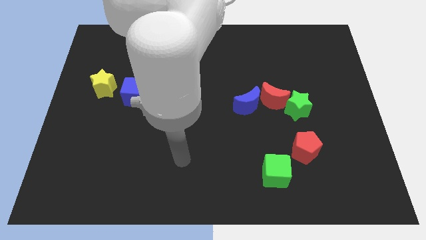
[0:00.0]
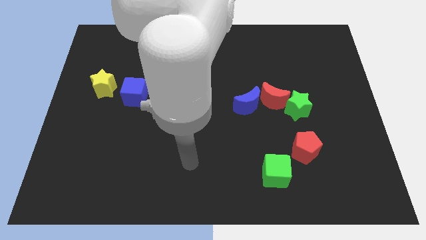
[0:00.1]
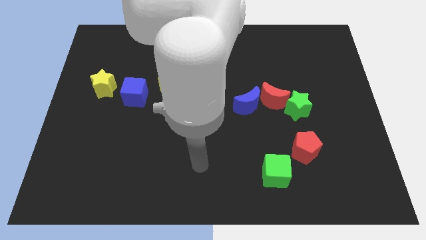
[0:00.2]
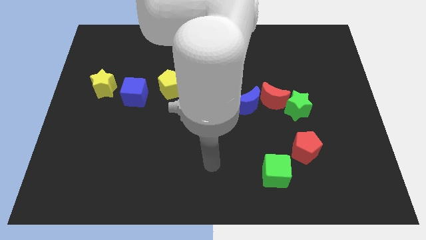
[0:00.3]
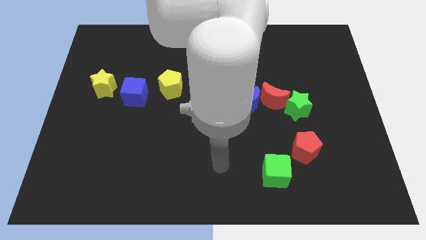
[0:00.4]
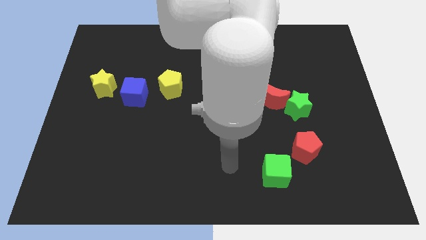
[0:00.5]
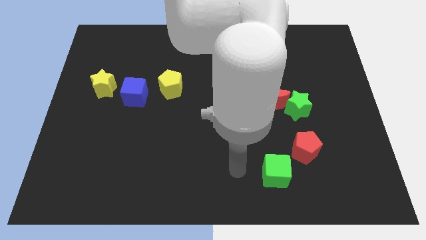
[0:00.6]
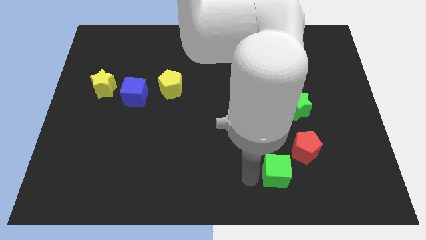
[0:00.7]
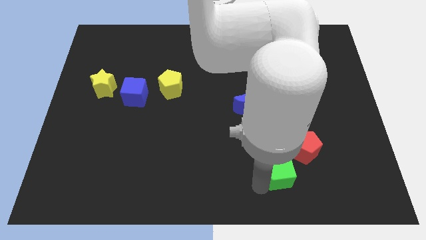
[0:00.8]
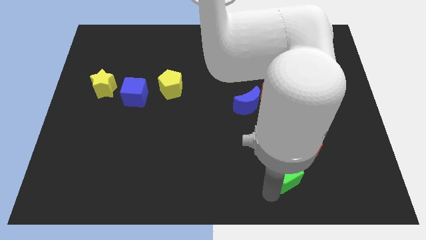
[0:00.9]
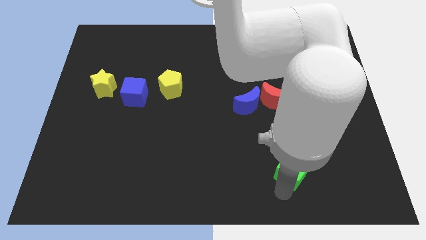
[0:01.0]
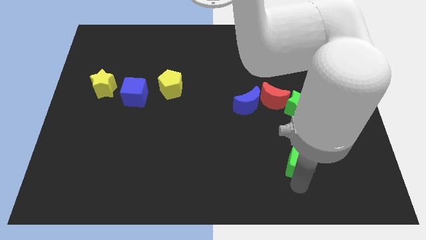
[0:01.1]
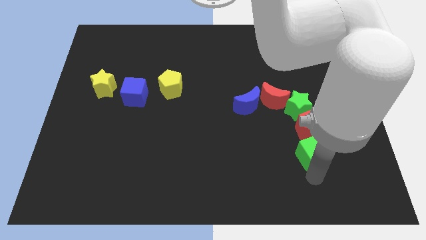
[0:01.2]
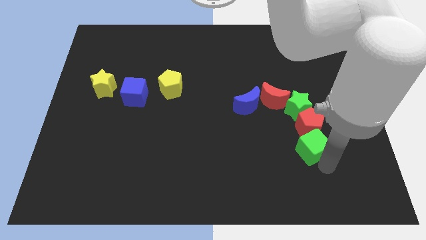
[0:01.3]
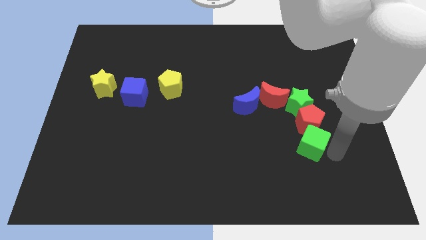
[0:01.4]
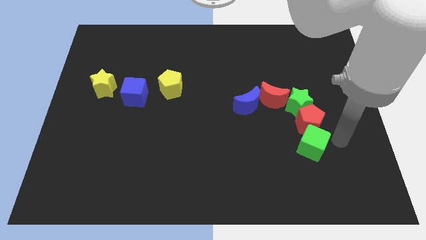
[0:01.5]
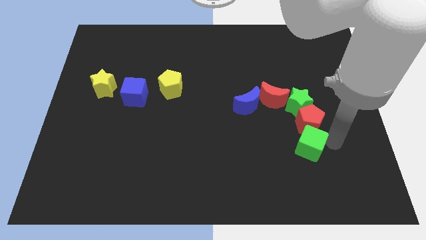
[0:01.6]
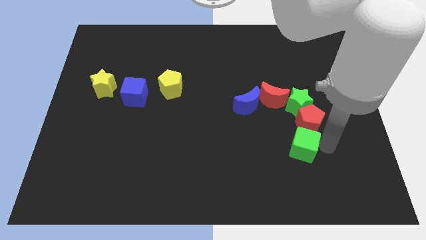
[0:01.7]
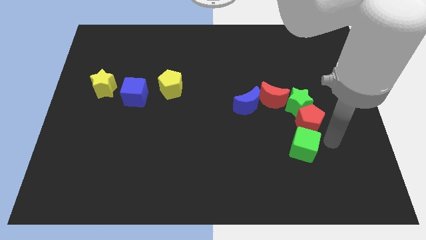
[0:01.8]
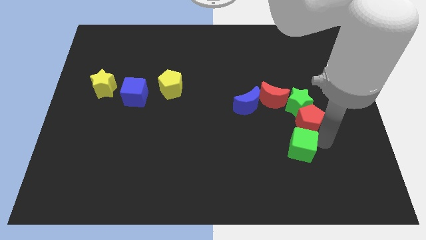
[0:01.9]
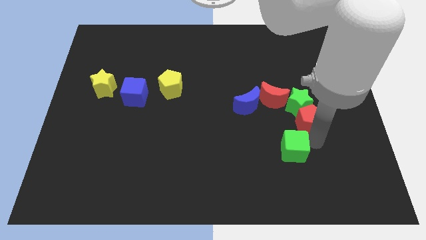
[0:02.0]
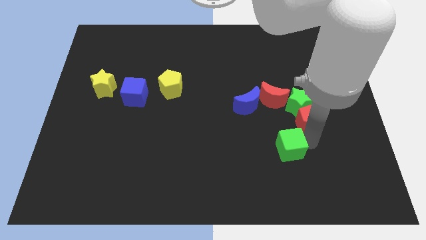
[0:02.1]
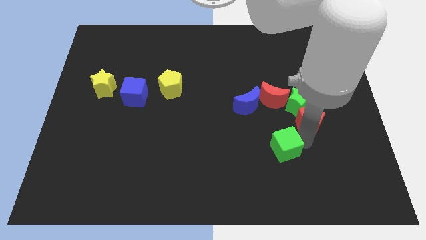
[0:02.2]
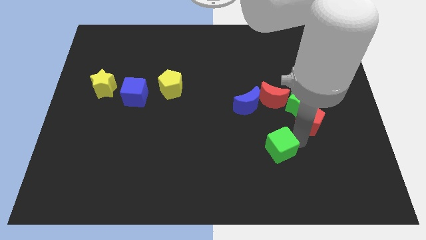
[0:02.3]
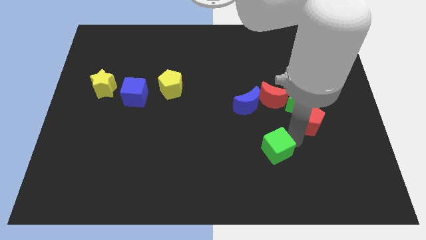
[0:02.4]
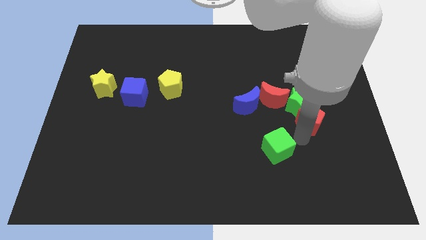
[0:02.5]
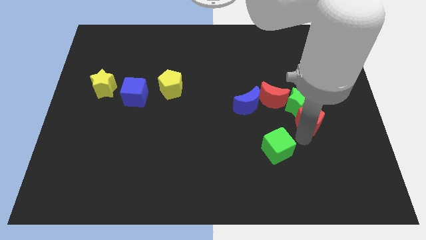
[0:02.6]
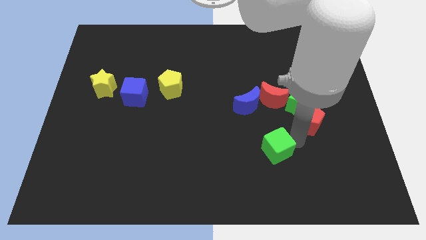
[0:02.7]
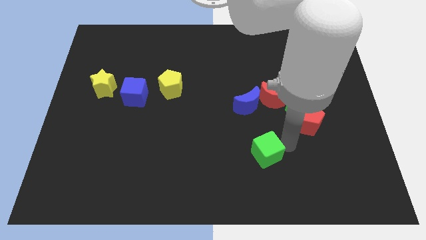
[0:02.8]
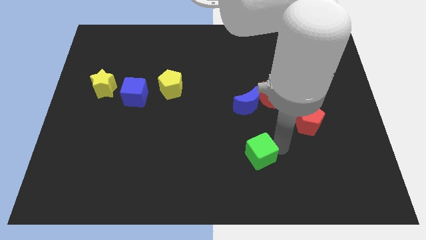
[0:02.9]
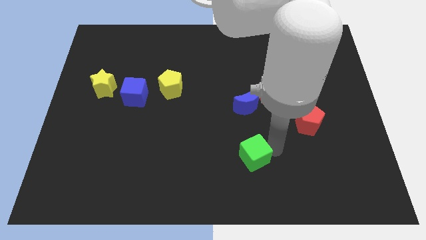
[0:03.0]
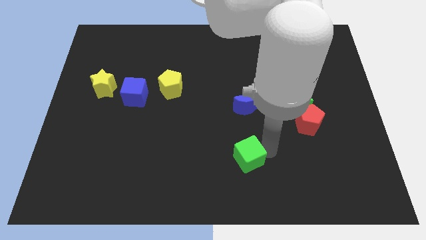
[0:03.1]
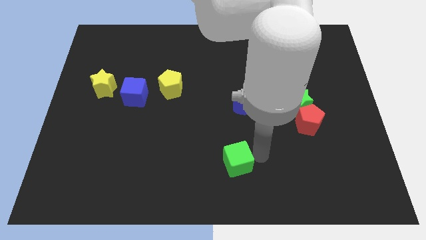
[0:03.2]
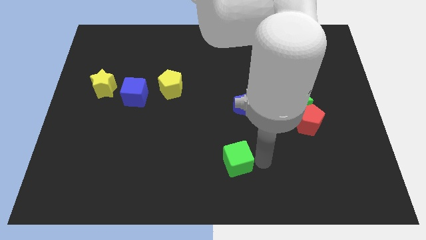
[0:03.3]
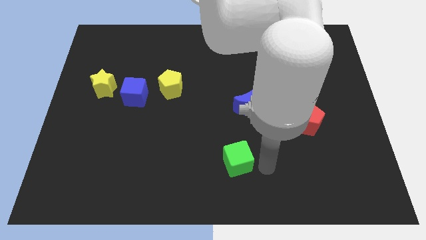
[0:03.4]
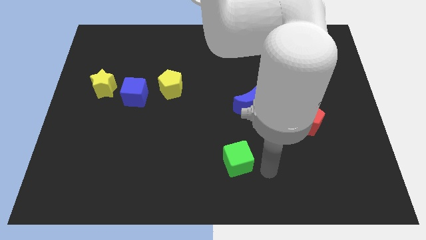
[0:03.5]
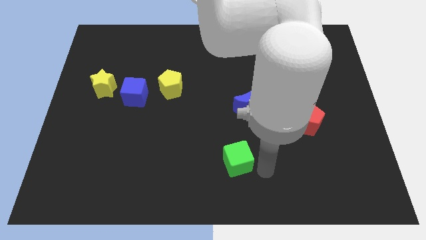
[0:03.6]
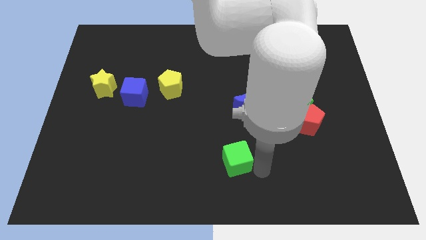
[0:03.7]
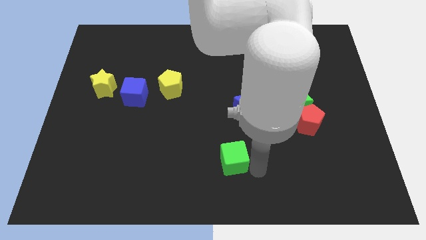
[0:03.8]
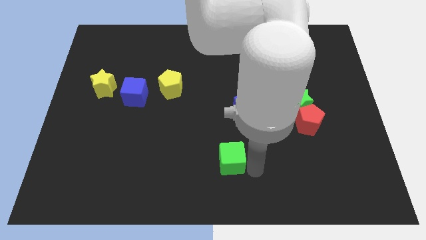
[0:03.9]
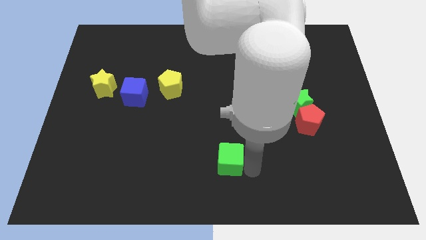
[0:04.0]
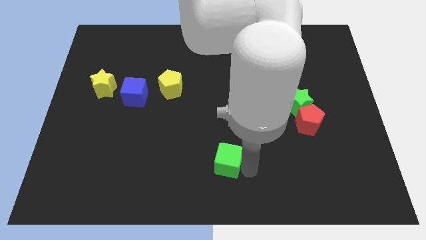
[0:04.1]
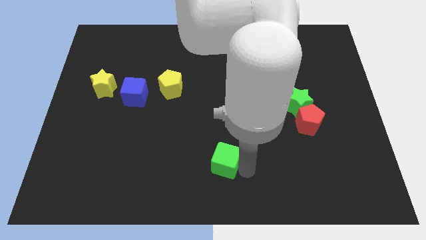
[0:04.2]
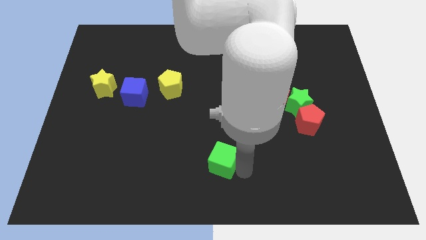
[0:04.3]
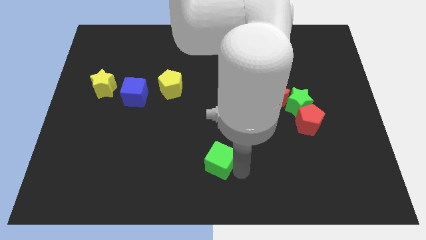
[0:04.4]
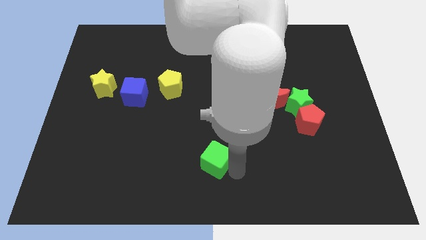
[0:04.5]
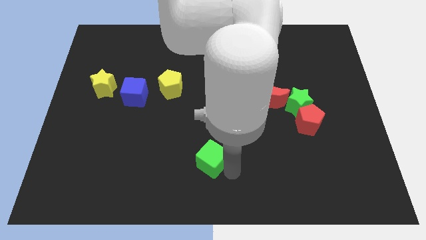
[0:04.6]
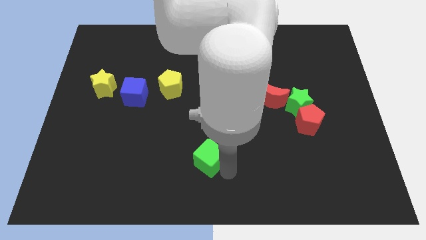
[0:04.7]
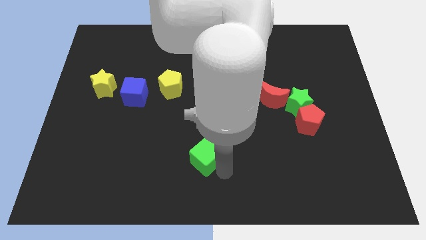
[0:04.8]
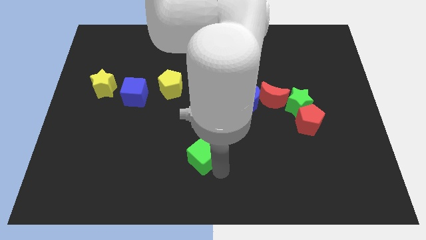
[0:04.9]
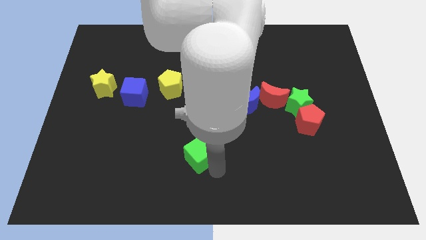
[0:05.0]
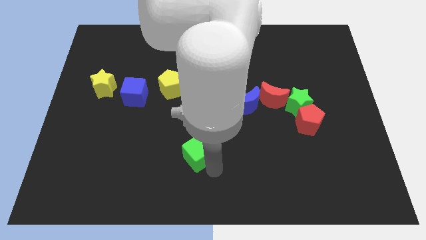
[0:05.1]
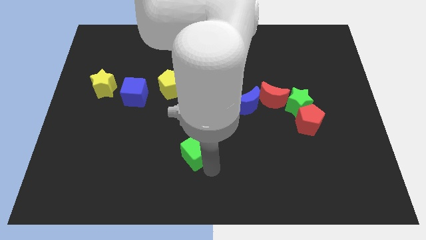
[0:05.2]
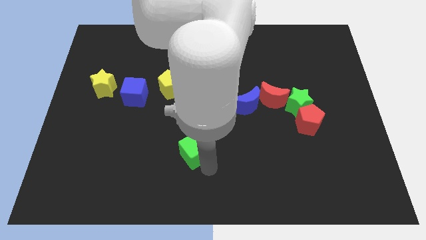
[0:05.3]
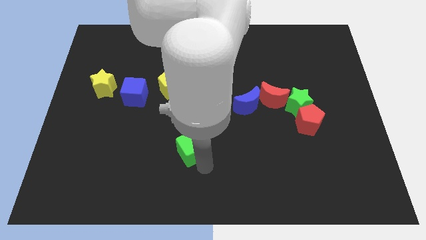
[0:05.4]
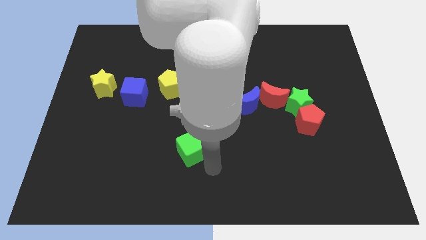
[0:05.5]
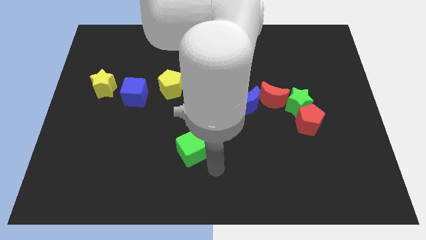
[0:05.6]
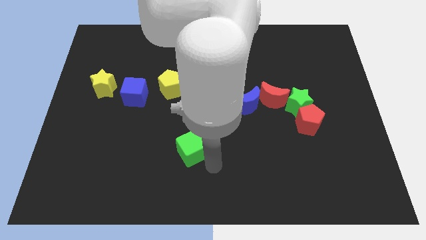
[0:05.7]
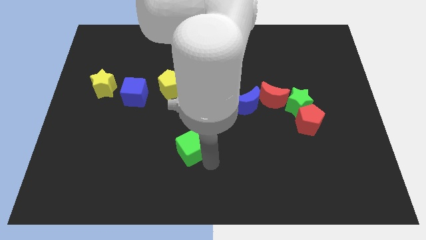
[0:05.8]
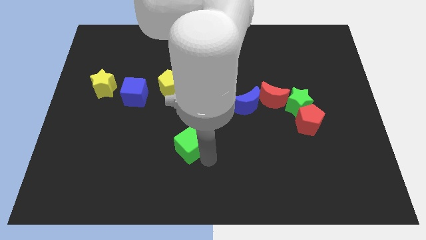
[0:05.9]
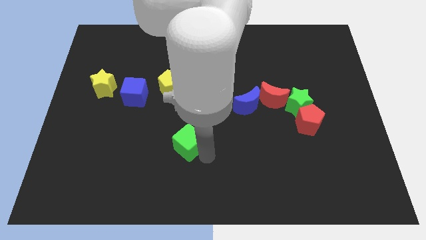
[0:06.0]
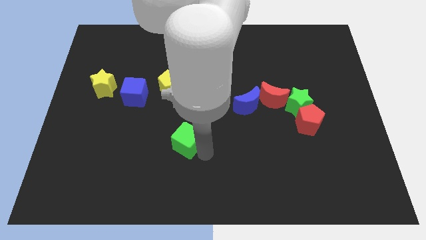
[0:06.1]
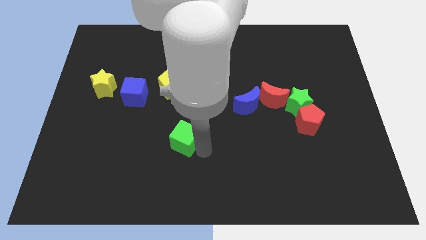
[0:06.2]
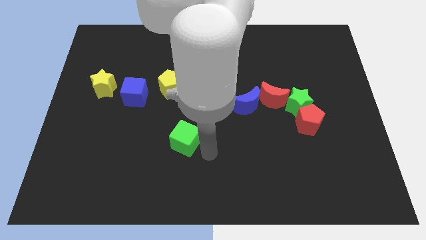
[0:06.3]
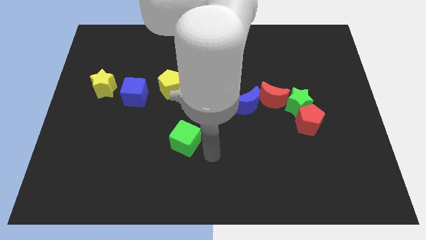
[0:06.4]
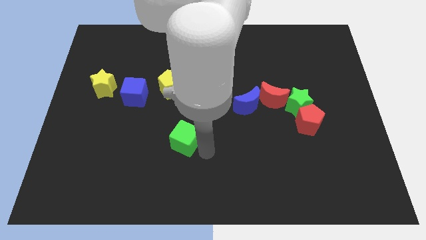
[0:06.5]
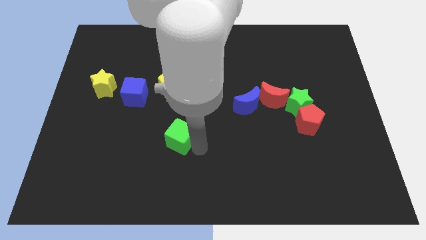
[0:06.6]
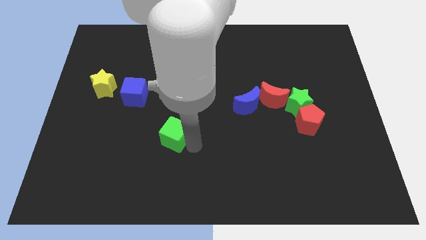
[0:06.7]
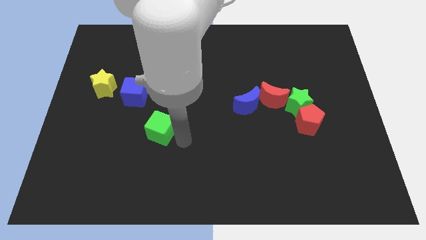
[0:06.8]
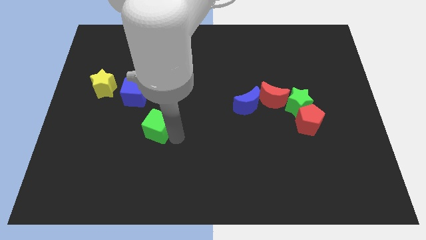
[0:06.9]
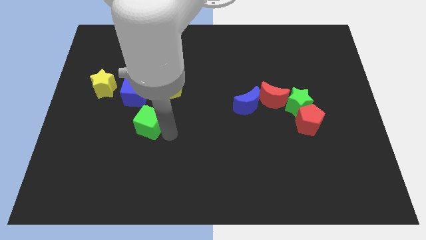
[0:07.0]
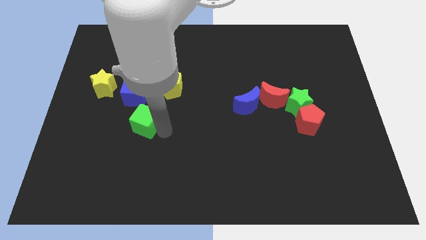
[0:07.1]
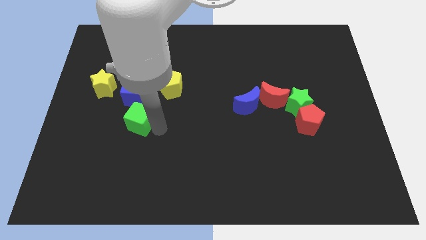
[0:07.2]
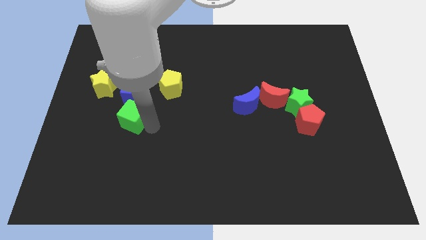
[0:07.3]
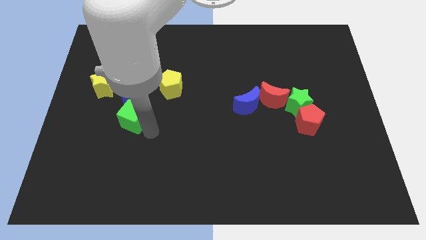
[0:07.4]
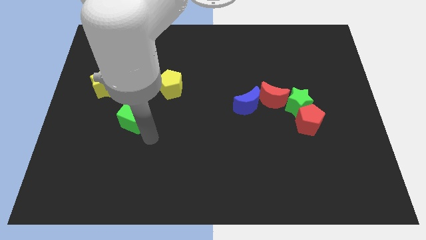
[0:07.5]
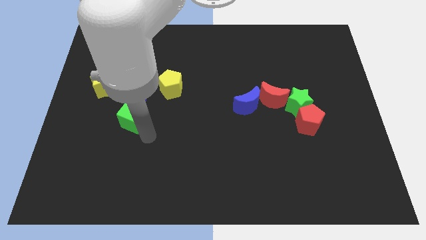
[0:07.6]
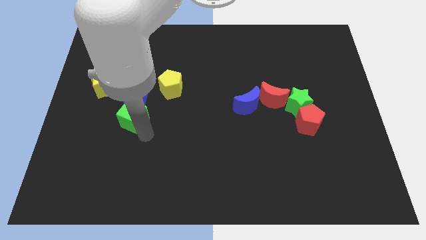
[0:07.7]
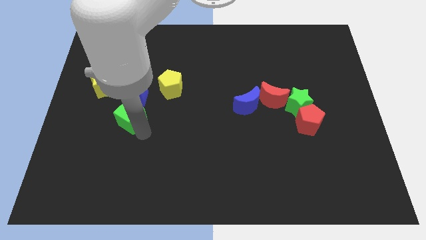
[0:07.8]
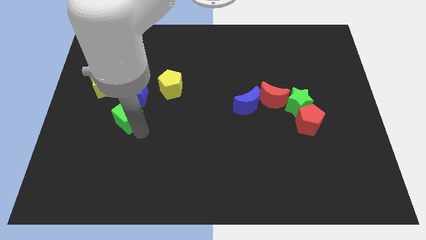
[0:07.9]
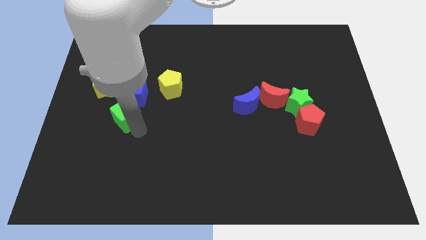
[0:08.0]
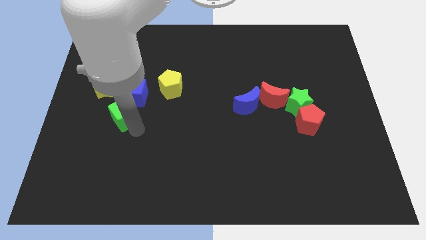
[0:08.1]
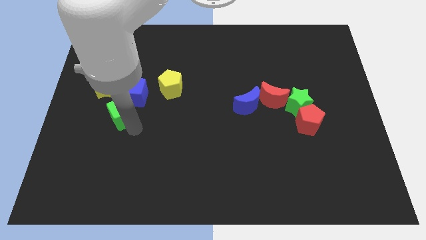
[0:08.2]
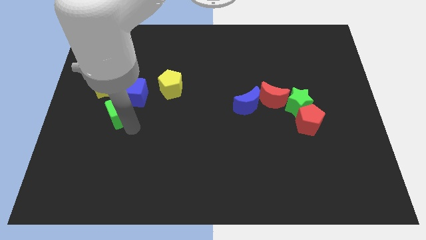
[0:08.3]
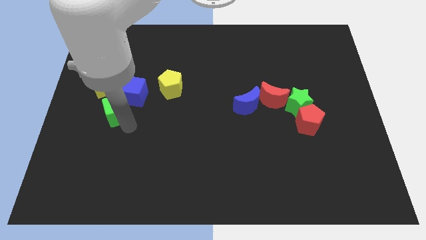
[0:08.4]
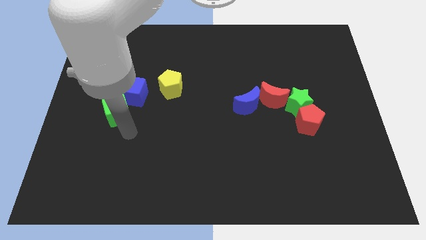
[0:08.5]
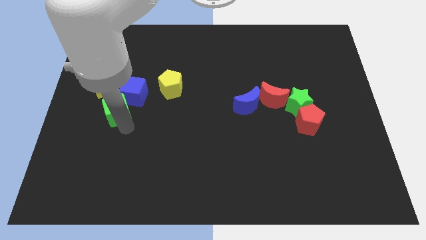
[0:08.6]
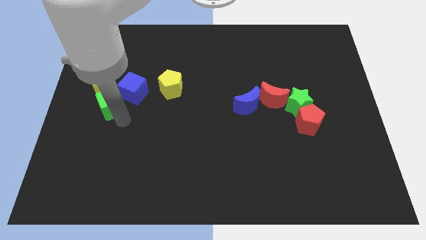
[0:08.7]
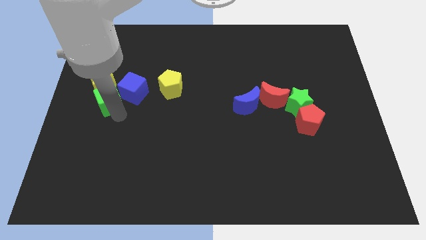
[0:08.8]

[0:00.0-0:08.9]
push the green cube close to the yellow star
